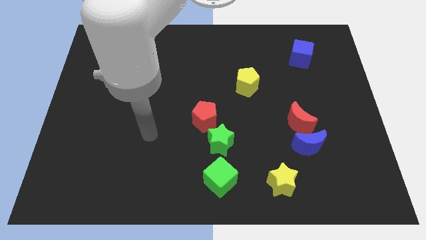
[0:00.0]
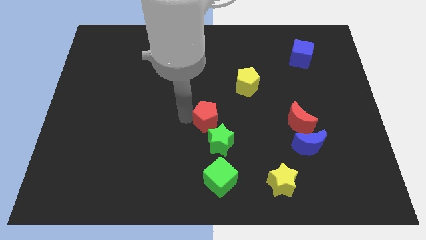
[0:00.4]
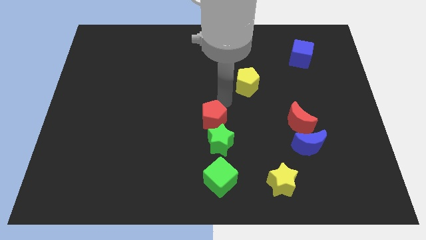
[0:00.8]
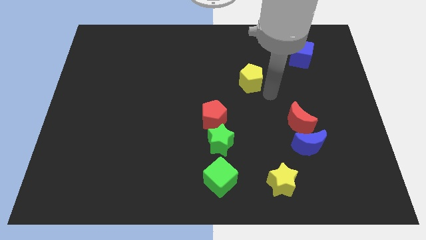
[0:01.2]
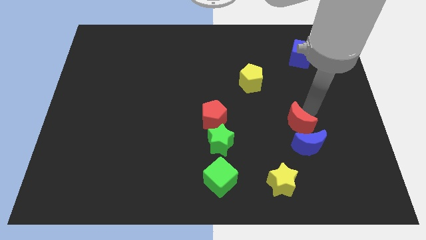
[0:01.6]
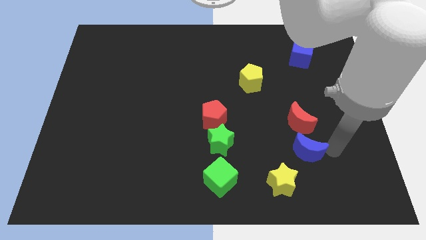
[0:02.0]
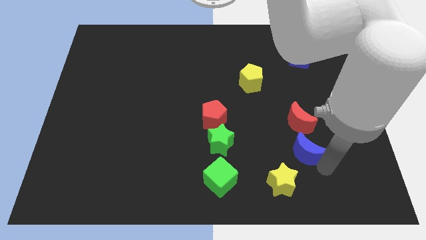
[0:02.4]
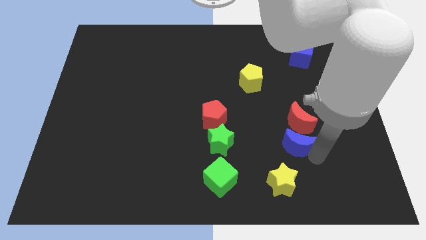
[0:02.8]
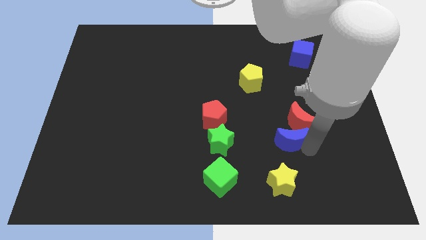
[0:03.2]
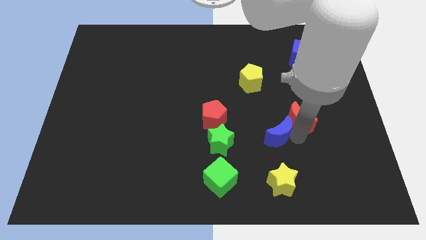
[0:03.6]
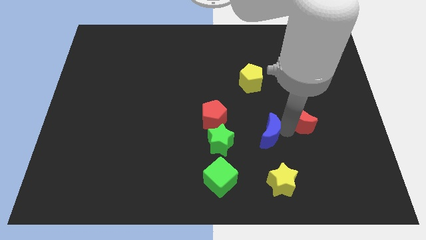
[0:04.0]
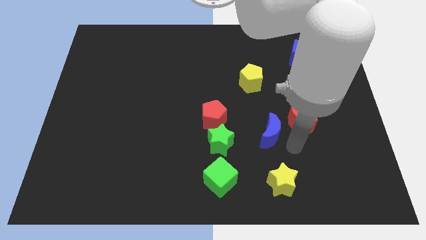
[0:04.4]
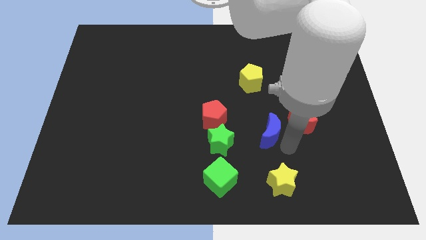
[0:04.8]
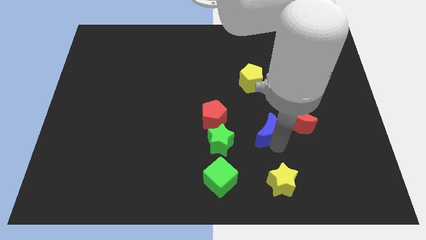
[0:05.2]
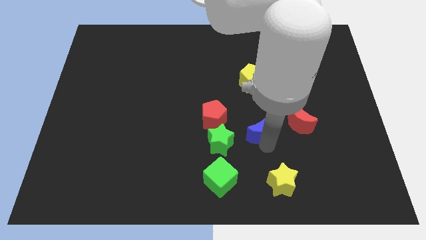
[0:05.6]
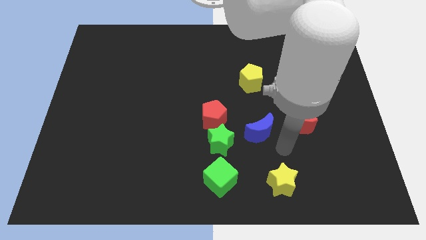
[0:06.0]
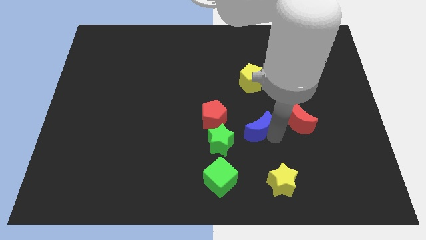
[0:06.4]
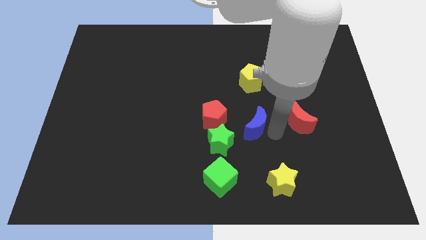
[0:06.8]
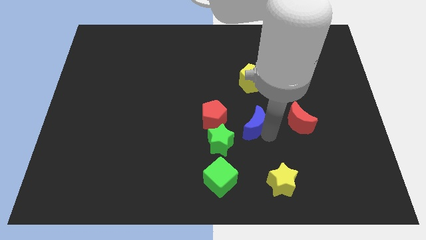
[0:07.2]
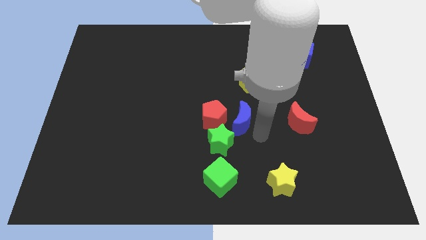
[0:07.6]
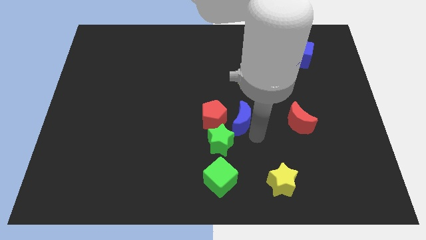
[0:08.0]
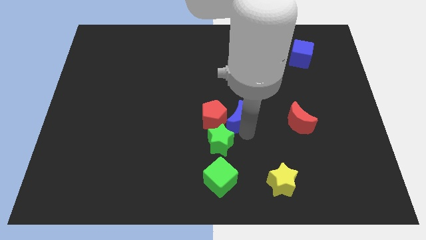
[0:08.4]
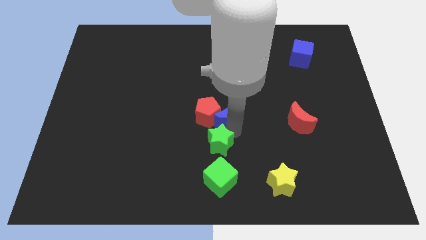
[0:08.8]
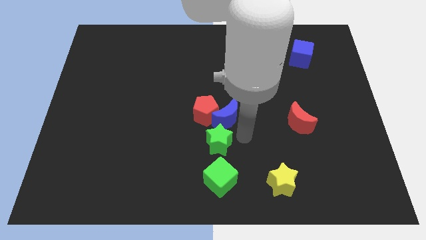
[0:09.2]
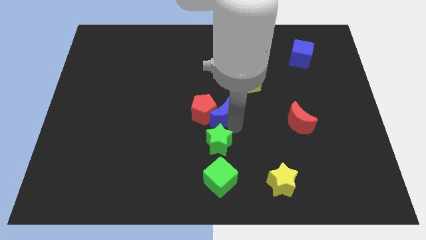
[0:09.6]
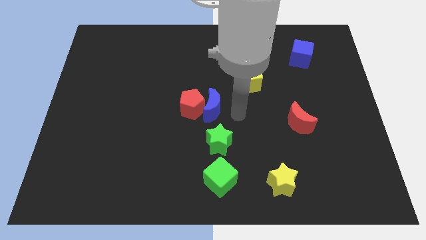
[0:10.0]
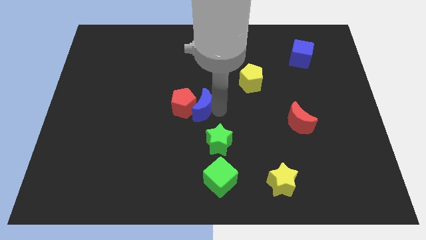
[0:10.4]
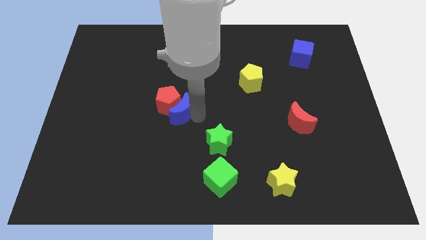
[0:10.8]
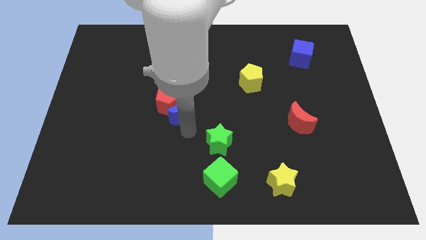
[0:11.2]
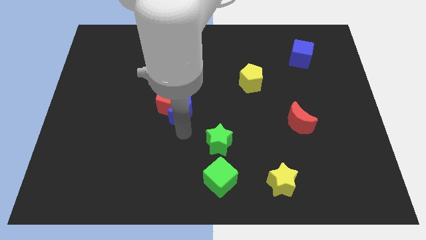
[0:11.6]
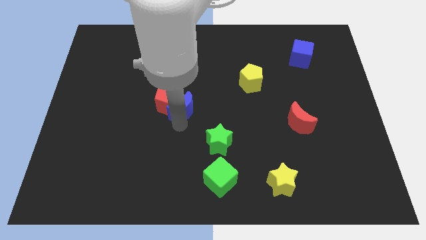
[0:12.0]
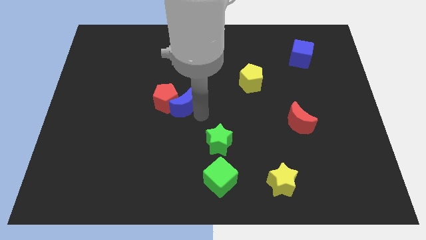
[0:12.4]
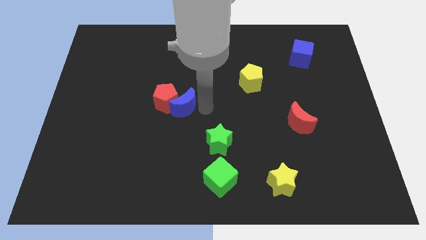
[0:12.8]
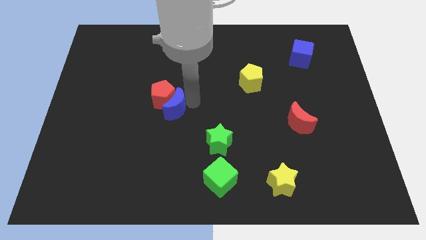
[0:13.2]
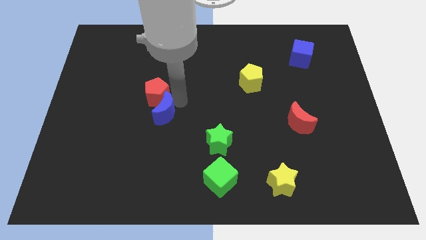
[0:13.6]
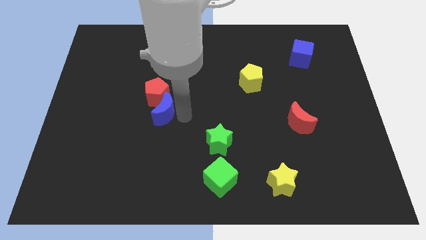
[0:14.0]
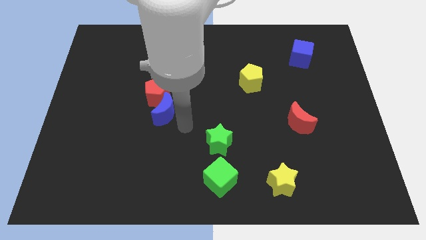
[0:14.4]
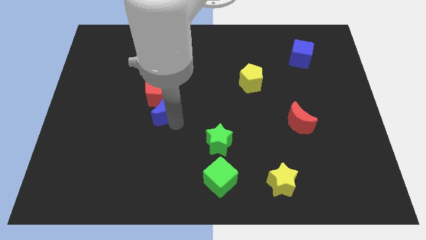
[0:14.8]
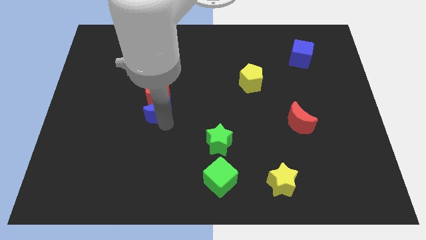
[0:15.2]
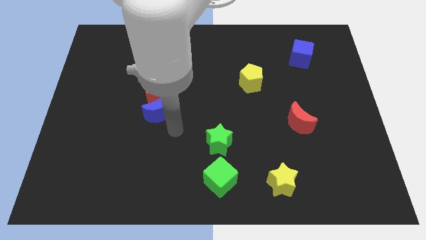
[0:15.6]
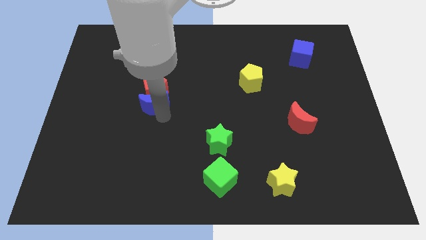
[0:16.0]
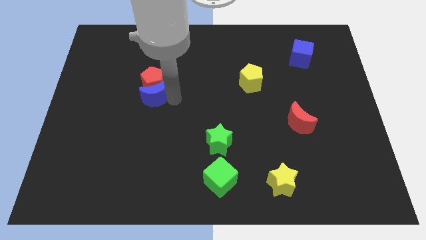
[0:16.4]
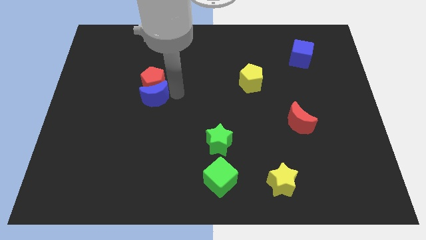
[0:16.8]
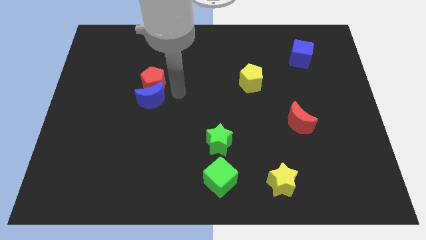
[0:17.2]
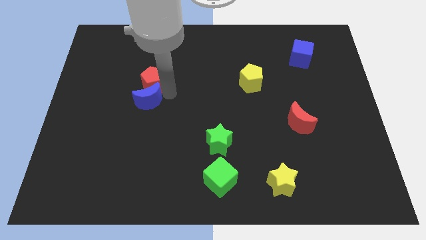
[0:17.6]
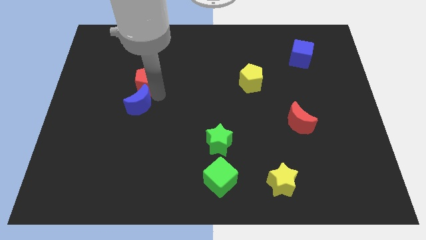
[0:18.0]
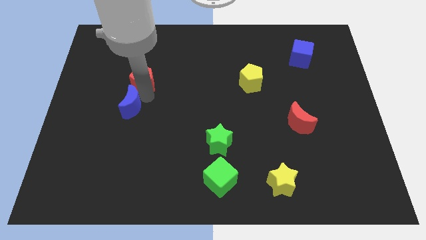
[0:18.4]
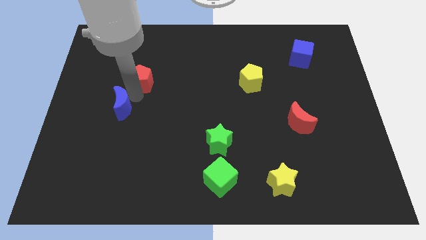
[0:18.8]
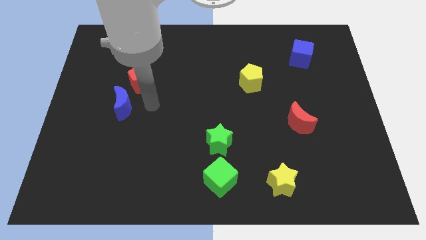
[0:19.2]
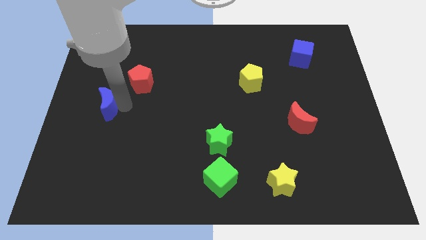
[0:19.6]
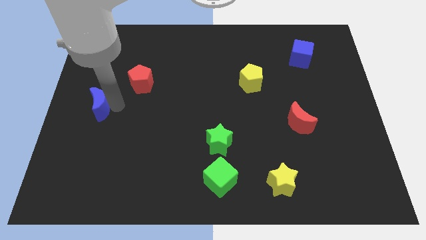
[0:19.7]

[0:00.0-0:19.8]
put the blue moon to the center left

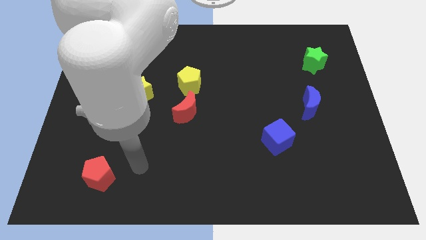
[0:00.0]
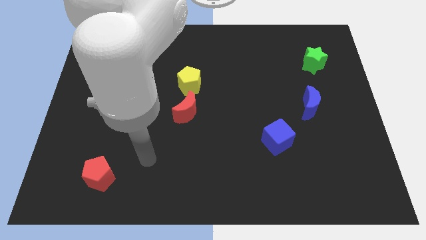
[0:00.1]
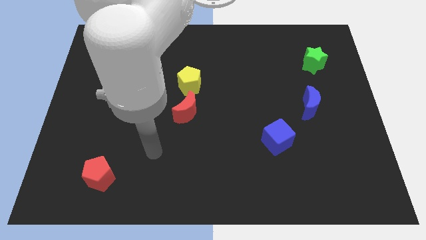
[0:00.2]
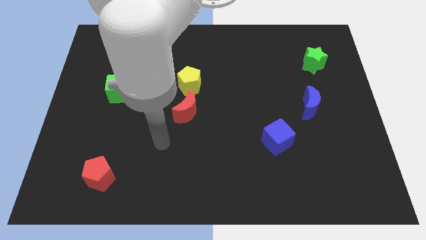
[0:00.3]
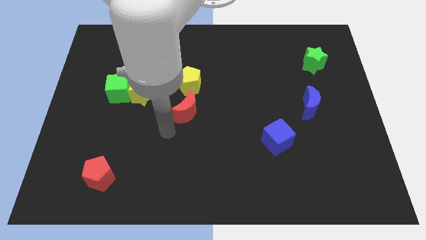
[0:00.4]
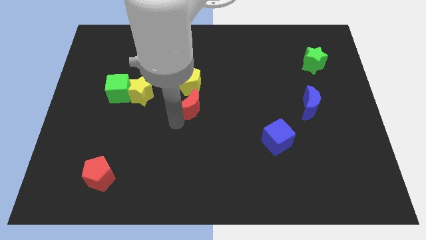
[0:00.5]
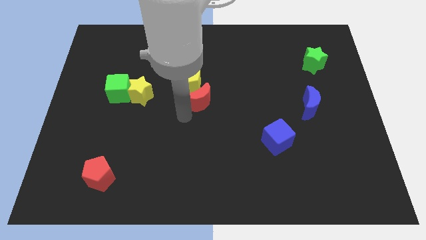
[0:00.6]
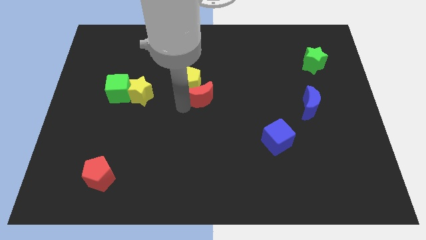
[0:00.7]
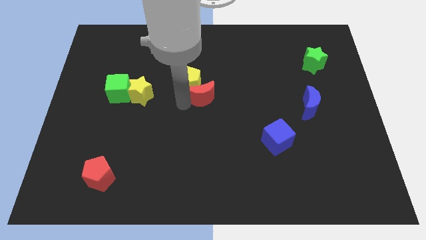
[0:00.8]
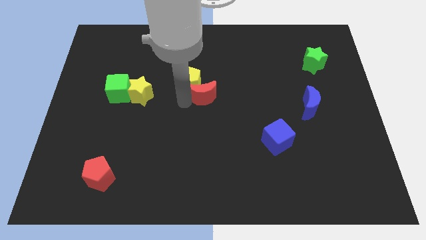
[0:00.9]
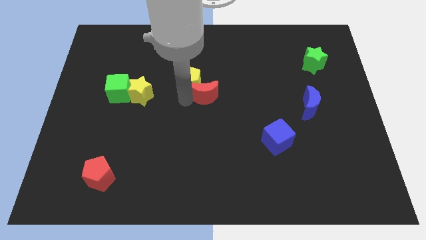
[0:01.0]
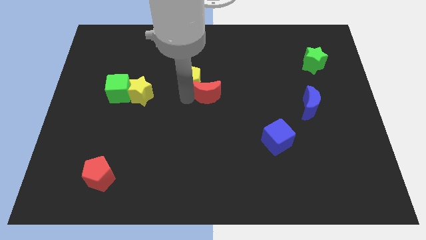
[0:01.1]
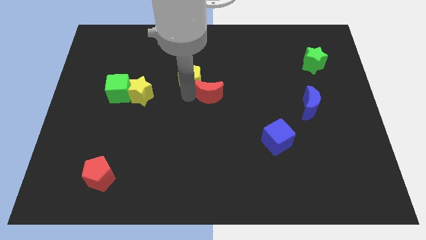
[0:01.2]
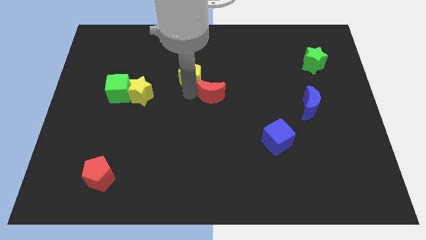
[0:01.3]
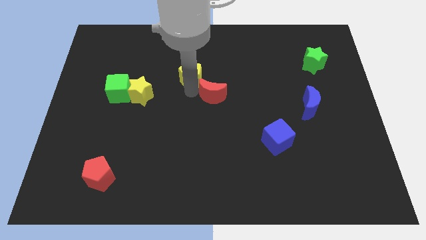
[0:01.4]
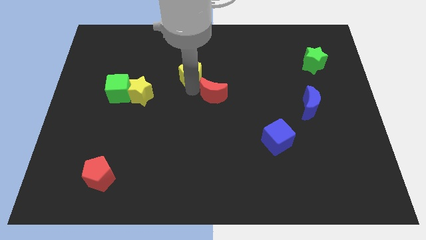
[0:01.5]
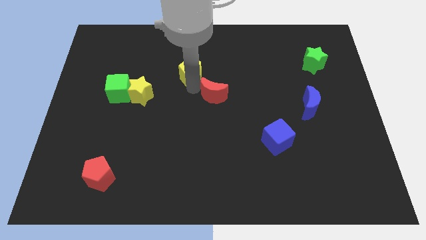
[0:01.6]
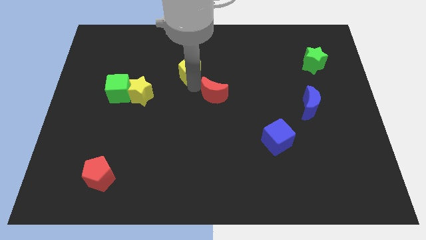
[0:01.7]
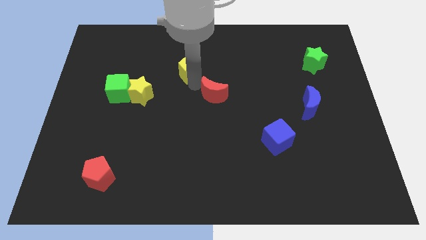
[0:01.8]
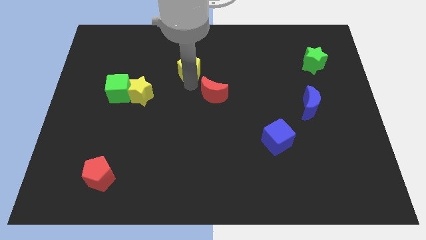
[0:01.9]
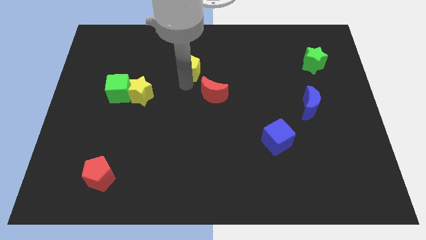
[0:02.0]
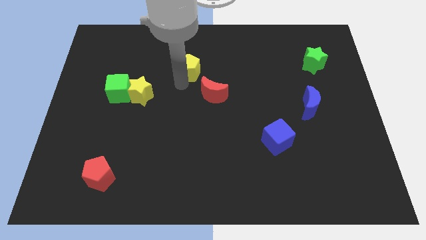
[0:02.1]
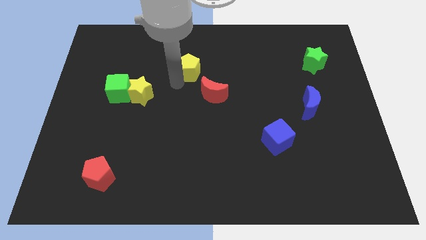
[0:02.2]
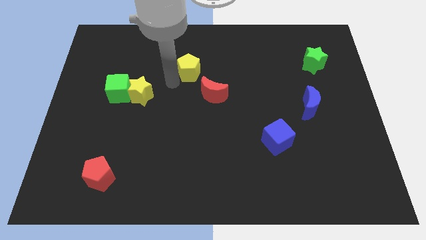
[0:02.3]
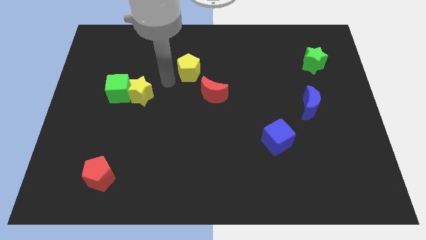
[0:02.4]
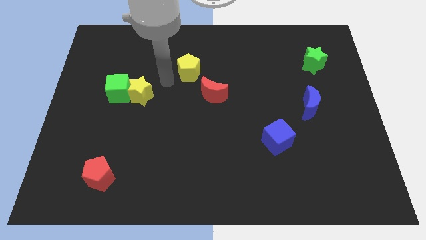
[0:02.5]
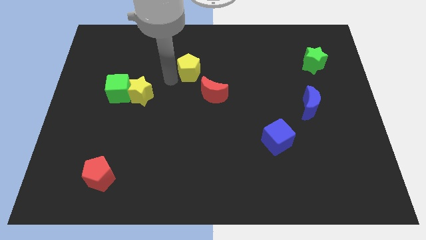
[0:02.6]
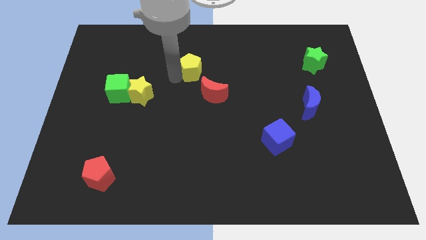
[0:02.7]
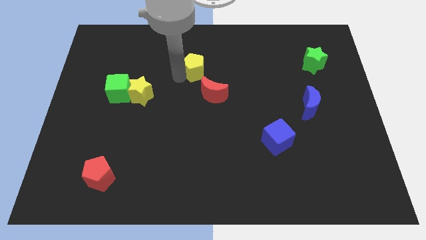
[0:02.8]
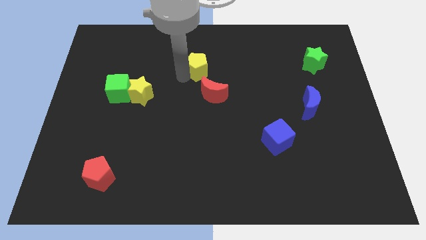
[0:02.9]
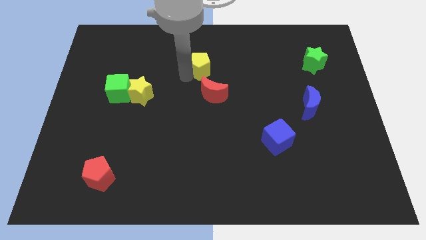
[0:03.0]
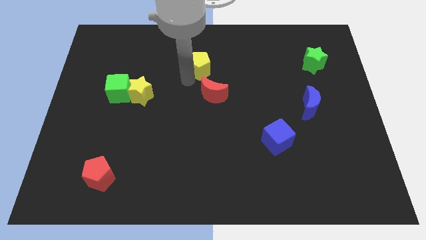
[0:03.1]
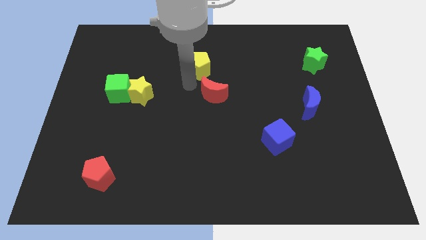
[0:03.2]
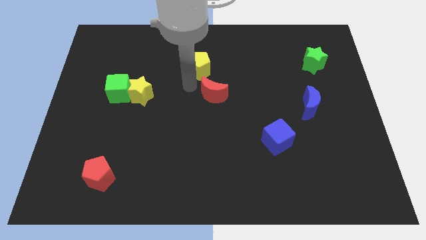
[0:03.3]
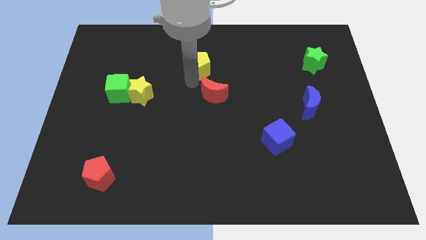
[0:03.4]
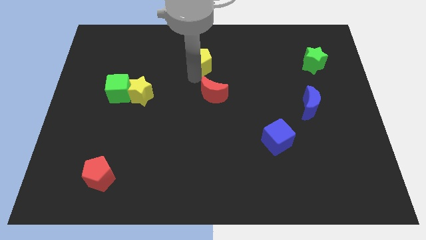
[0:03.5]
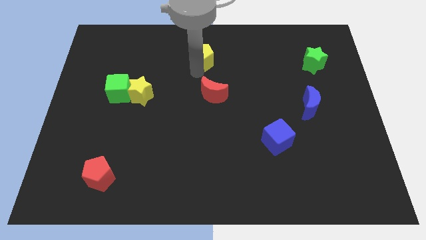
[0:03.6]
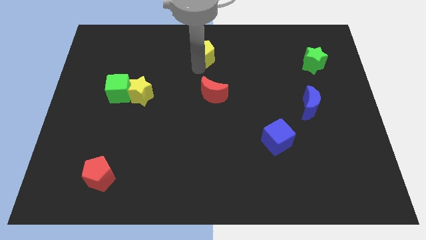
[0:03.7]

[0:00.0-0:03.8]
put the yellow pentagon to the towards your base
